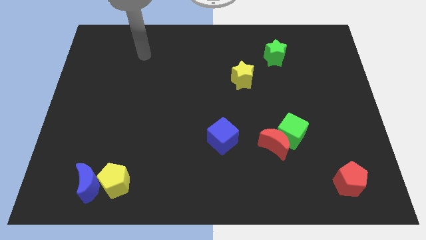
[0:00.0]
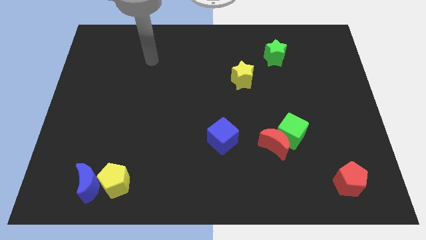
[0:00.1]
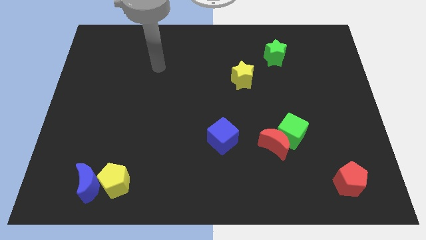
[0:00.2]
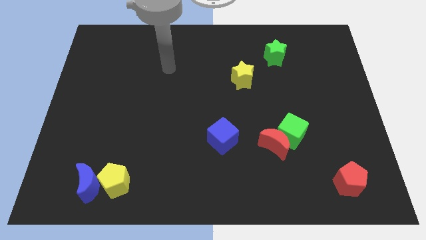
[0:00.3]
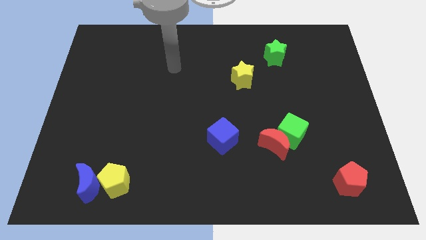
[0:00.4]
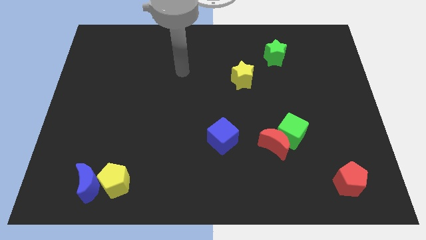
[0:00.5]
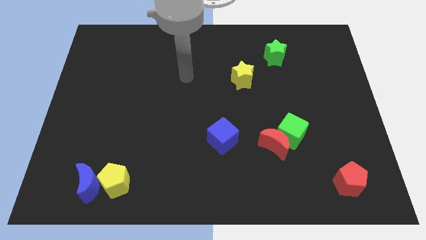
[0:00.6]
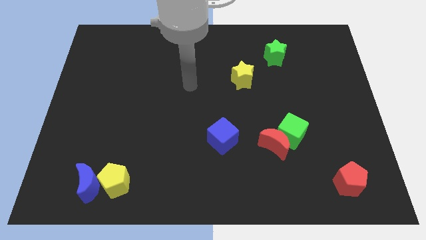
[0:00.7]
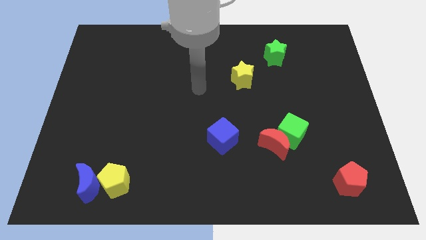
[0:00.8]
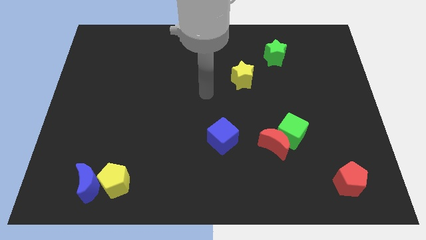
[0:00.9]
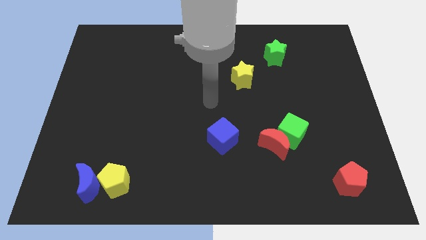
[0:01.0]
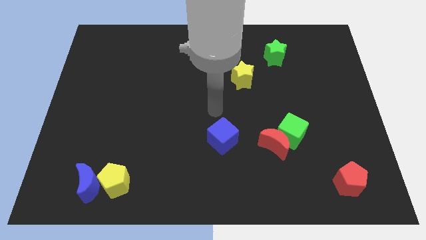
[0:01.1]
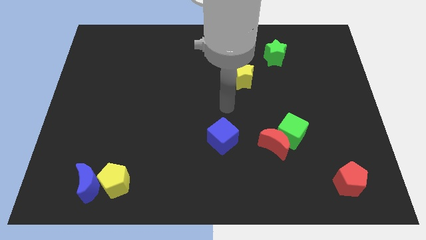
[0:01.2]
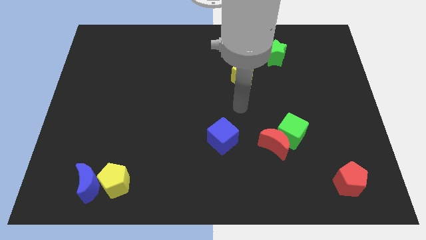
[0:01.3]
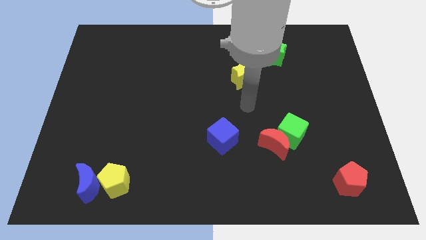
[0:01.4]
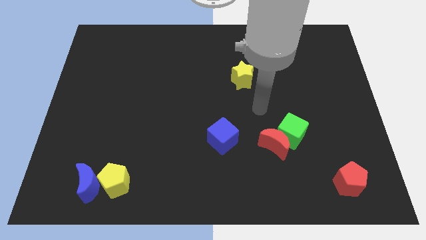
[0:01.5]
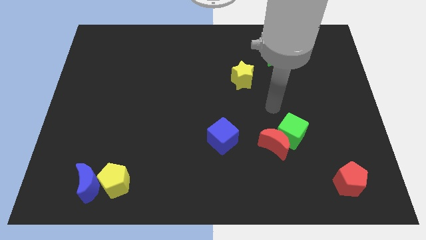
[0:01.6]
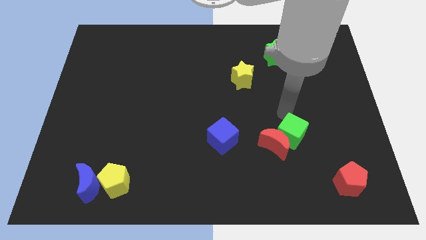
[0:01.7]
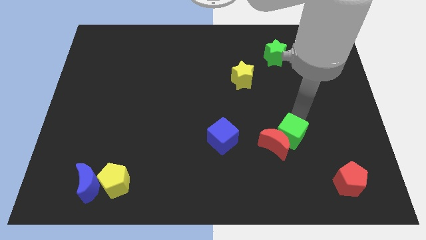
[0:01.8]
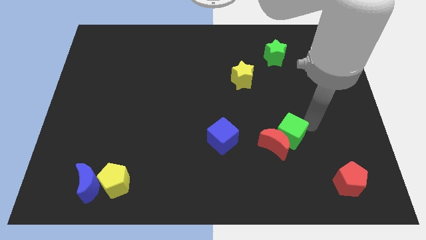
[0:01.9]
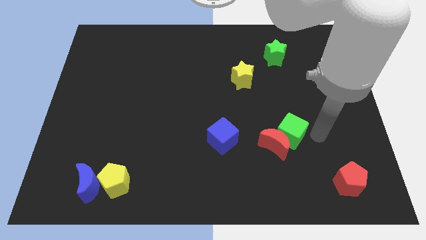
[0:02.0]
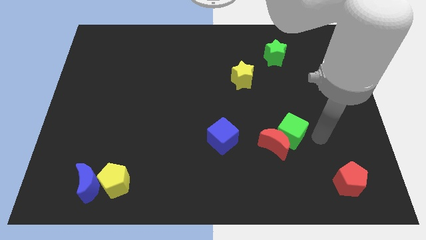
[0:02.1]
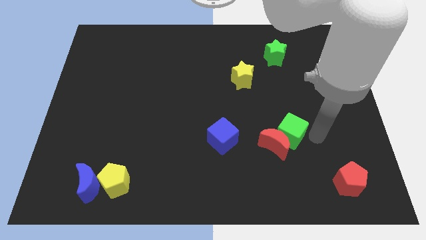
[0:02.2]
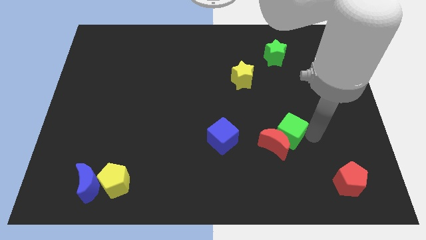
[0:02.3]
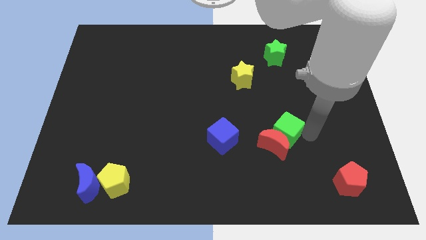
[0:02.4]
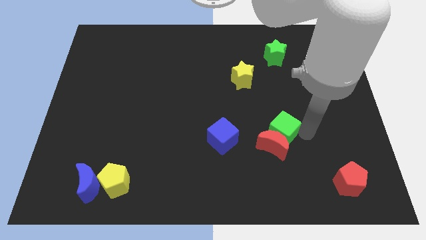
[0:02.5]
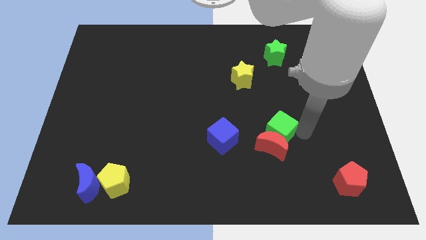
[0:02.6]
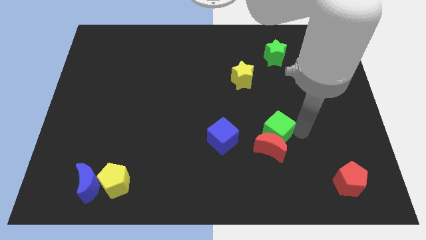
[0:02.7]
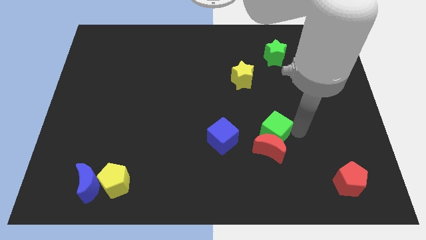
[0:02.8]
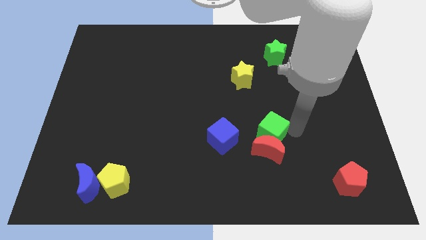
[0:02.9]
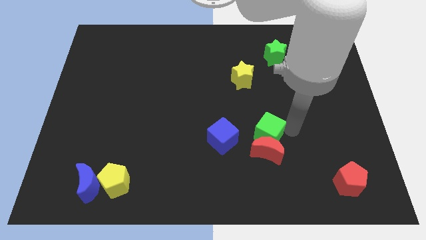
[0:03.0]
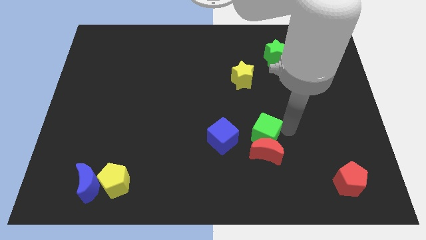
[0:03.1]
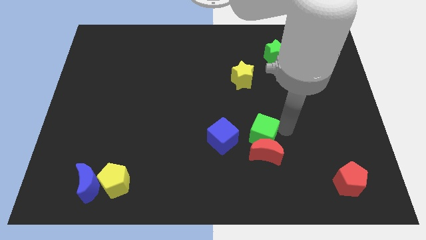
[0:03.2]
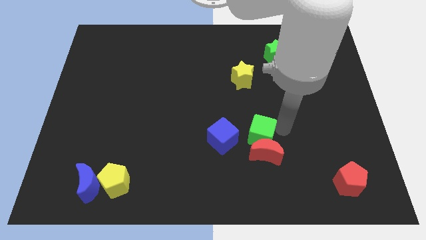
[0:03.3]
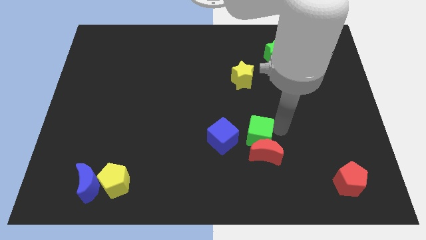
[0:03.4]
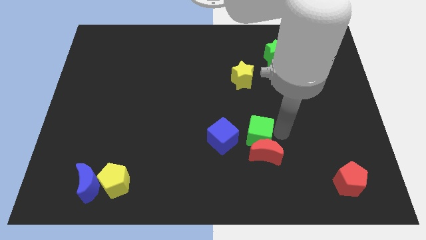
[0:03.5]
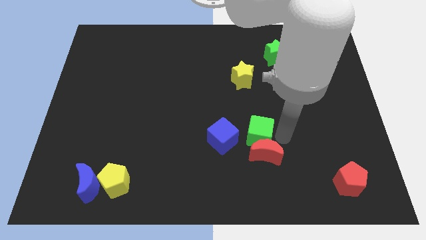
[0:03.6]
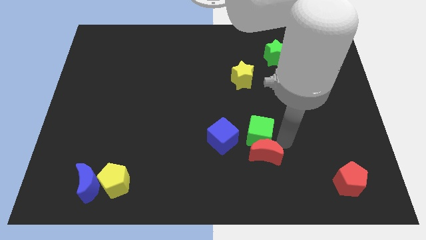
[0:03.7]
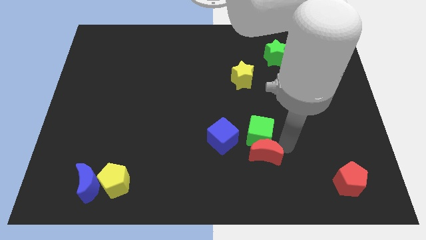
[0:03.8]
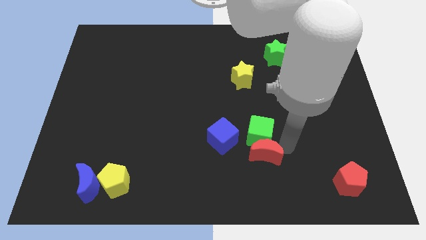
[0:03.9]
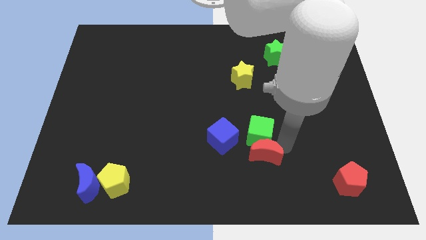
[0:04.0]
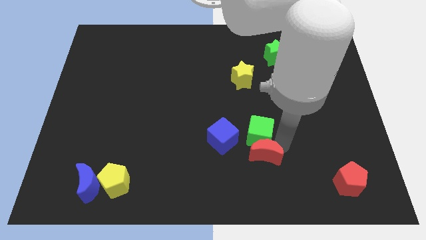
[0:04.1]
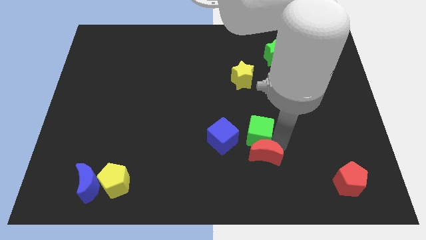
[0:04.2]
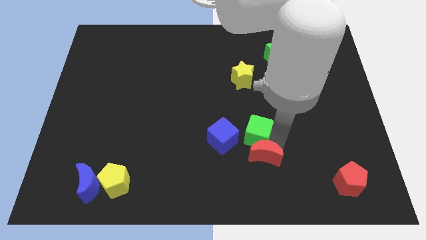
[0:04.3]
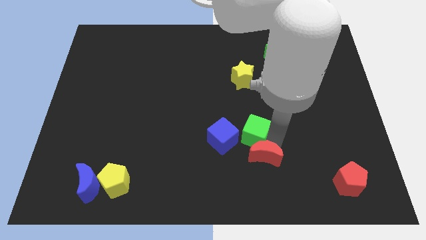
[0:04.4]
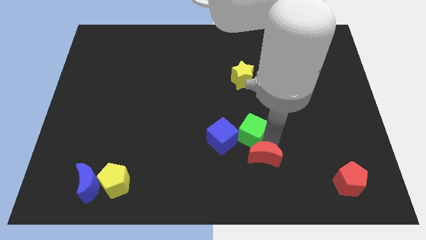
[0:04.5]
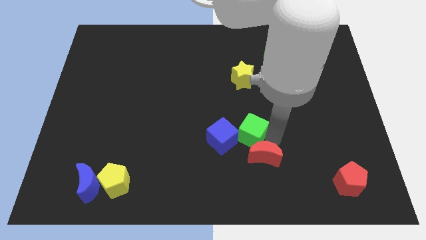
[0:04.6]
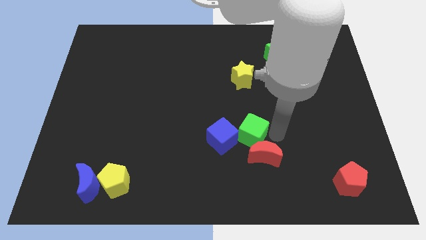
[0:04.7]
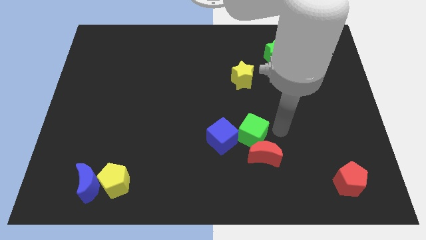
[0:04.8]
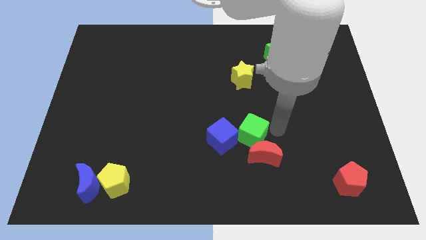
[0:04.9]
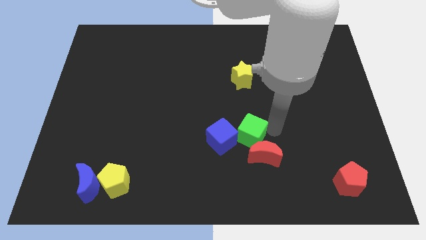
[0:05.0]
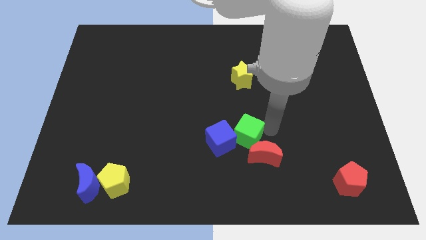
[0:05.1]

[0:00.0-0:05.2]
put the green cube towards the blue cube

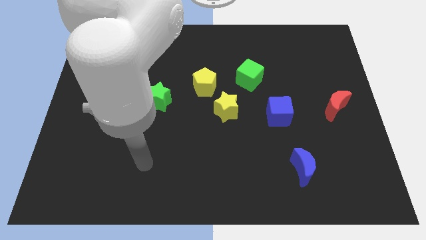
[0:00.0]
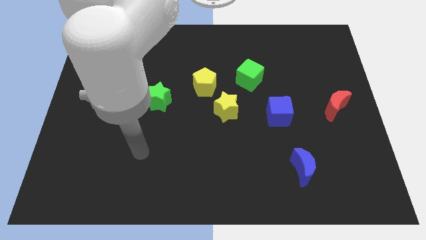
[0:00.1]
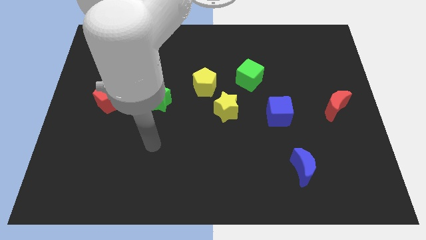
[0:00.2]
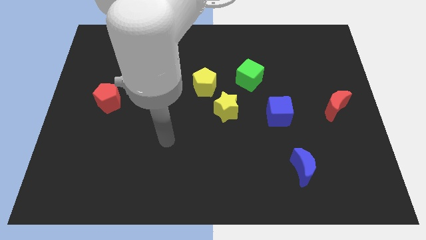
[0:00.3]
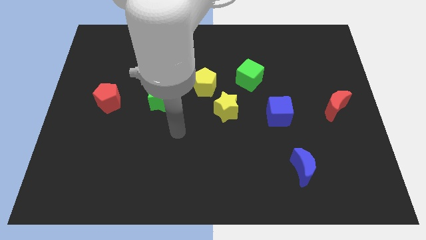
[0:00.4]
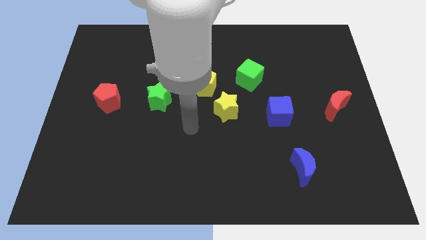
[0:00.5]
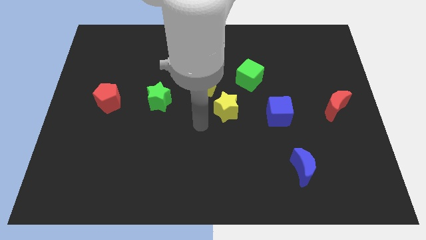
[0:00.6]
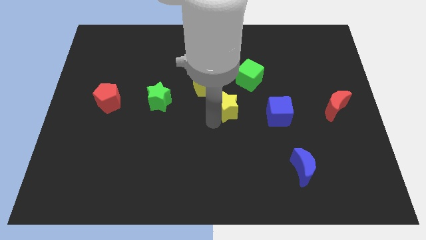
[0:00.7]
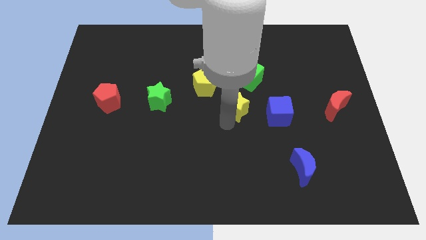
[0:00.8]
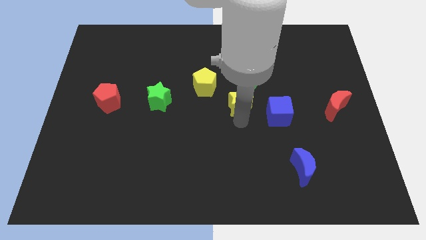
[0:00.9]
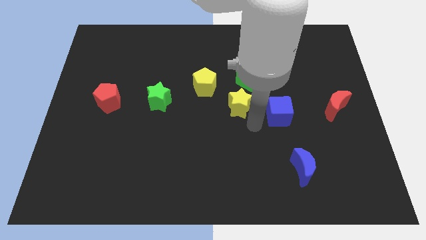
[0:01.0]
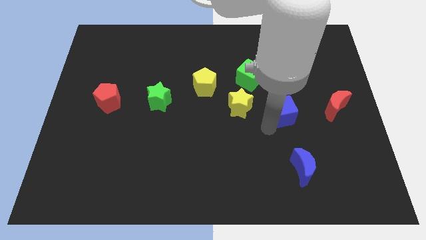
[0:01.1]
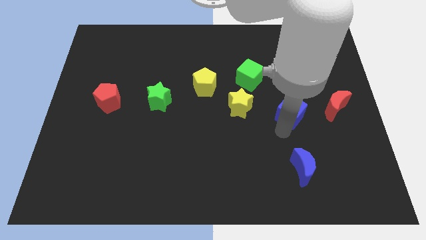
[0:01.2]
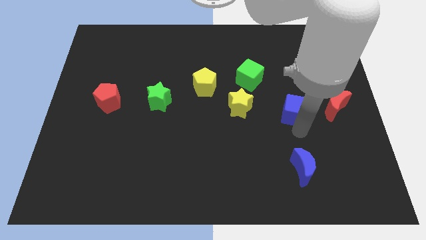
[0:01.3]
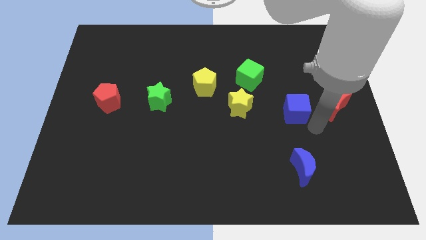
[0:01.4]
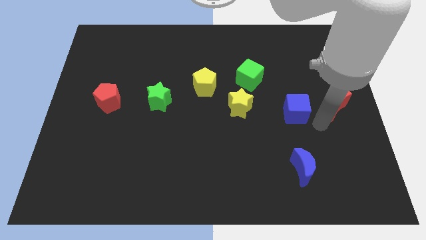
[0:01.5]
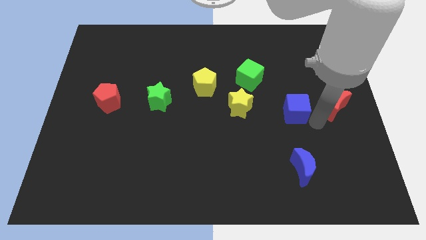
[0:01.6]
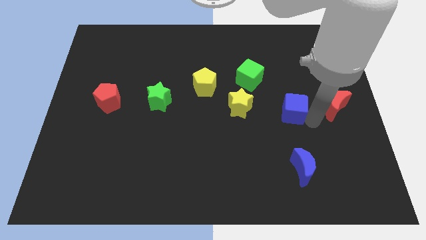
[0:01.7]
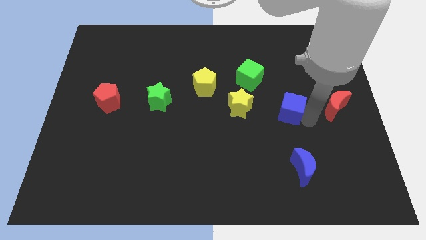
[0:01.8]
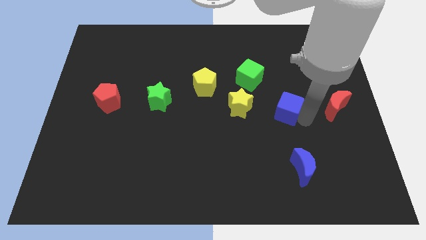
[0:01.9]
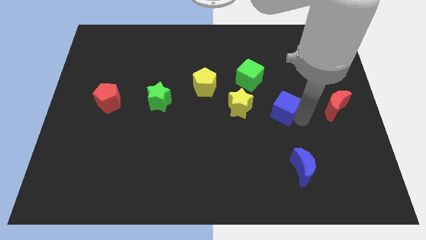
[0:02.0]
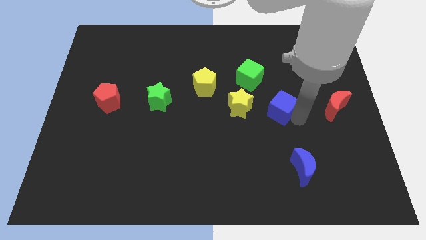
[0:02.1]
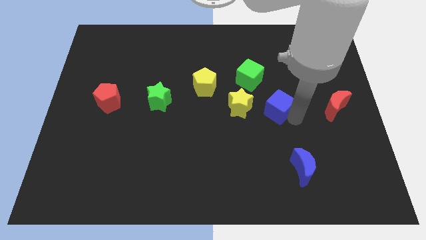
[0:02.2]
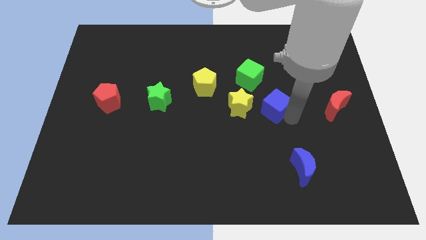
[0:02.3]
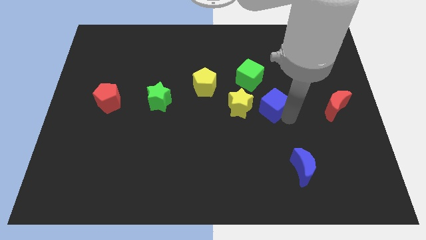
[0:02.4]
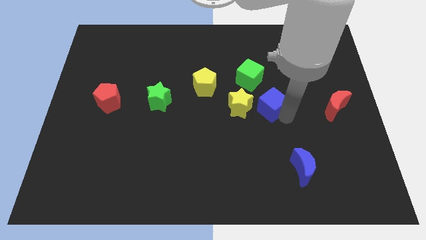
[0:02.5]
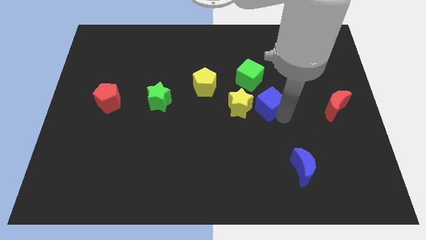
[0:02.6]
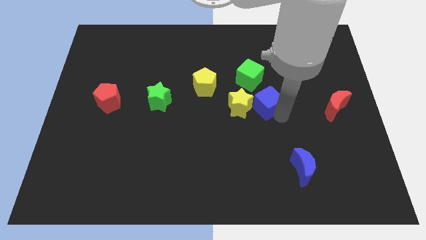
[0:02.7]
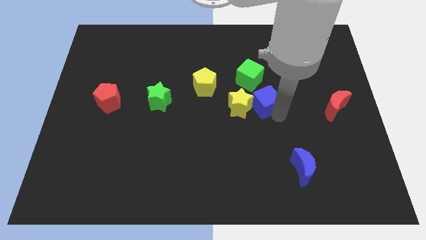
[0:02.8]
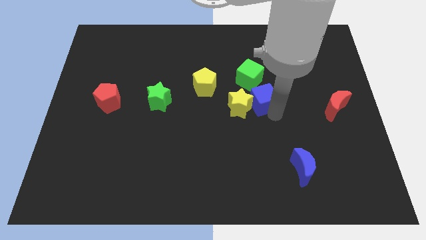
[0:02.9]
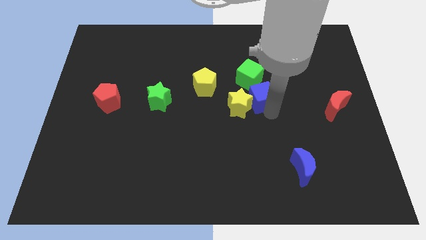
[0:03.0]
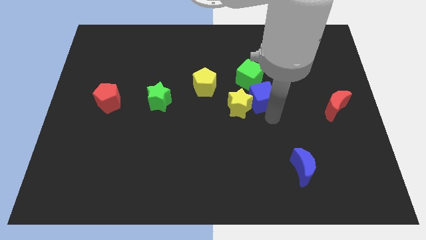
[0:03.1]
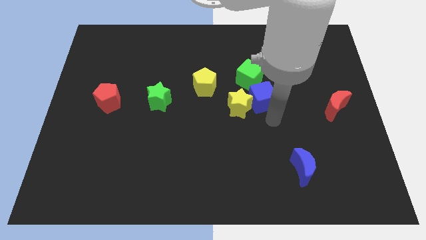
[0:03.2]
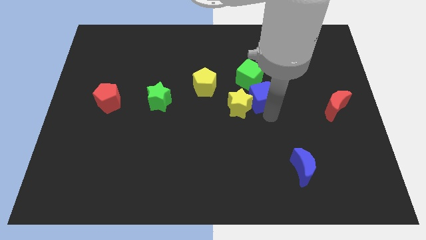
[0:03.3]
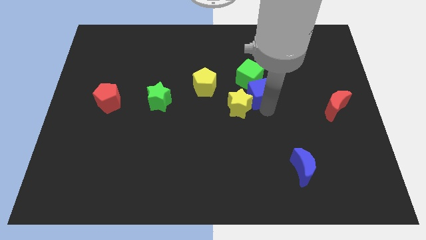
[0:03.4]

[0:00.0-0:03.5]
move the blue cube towards the green cube
